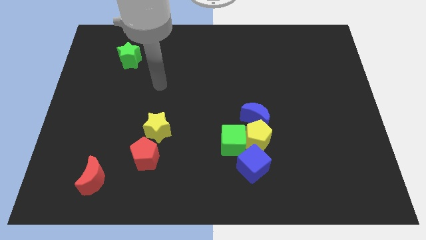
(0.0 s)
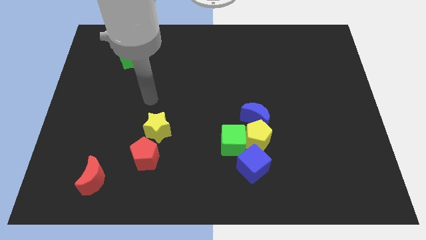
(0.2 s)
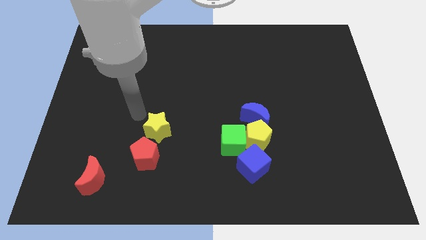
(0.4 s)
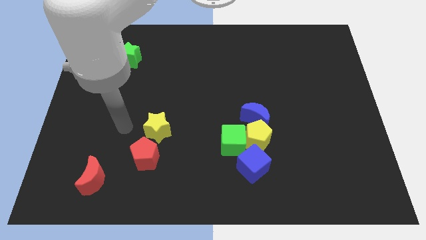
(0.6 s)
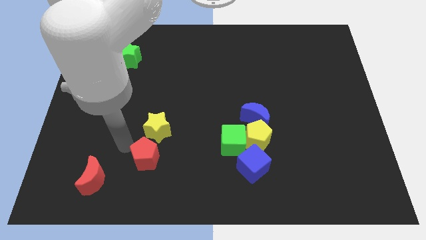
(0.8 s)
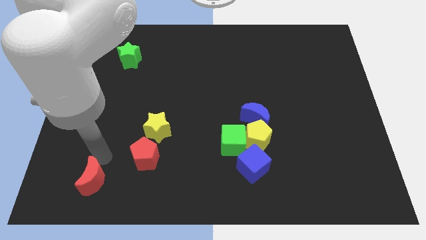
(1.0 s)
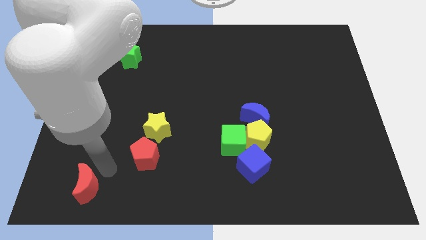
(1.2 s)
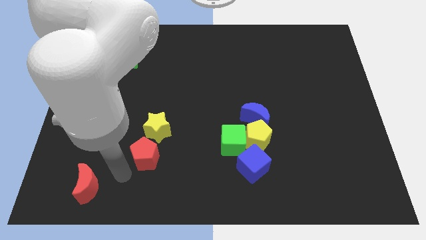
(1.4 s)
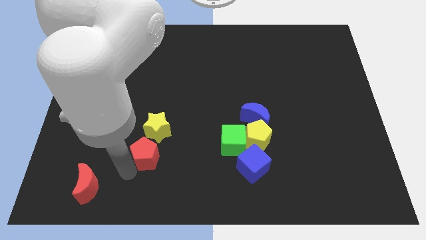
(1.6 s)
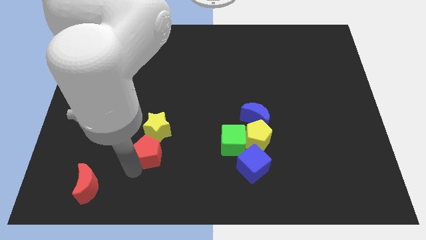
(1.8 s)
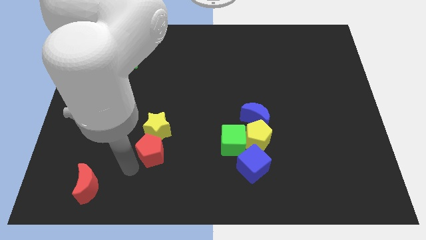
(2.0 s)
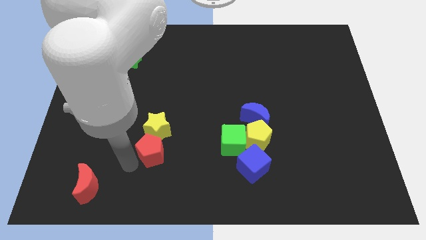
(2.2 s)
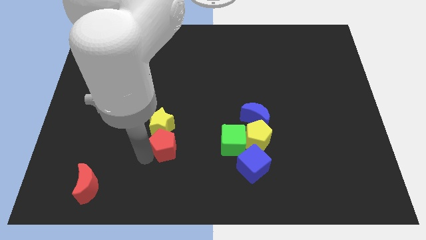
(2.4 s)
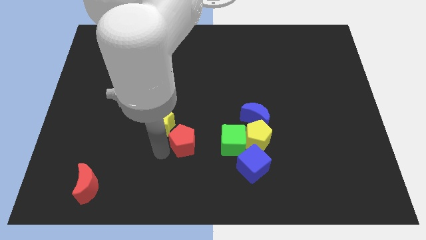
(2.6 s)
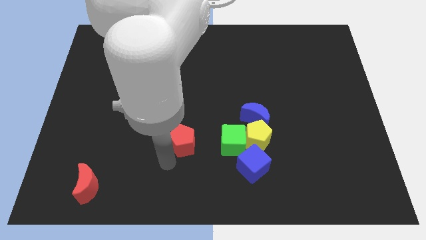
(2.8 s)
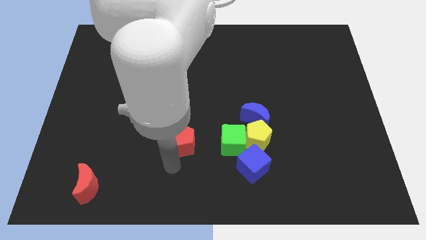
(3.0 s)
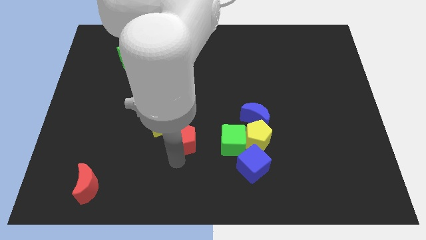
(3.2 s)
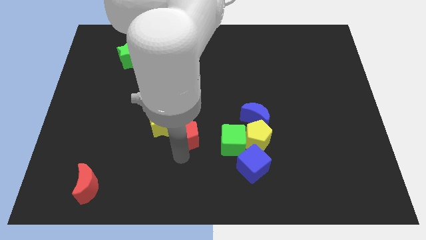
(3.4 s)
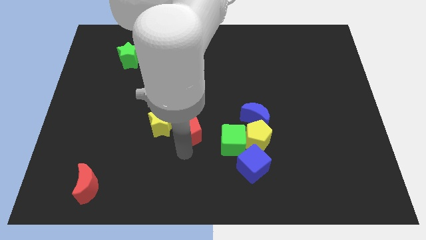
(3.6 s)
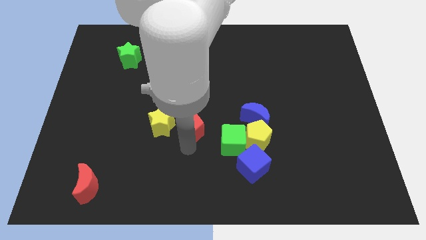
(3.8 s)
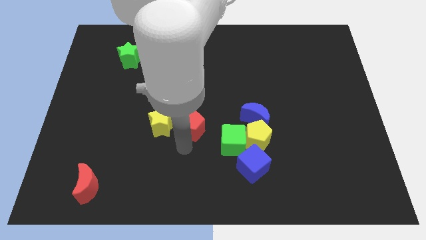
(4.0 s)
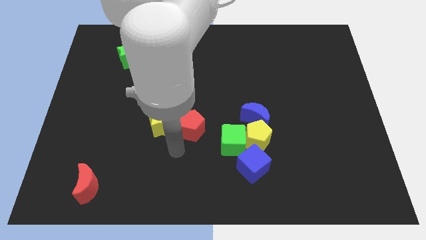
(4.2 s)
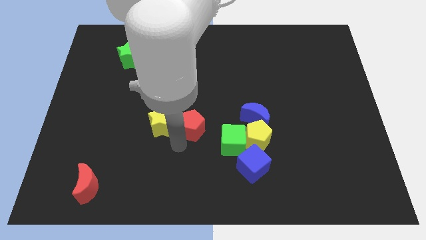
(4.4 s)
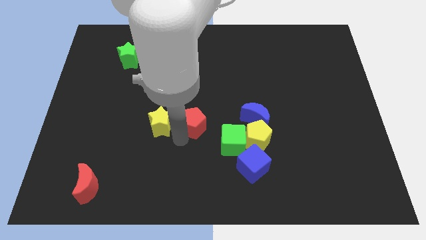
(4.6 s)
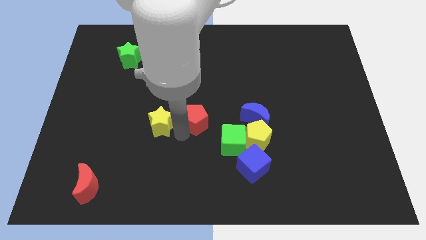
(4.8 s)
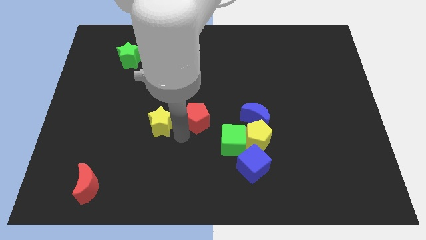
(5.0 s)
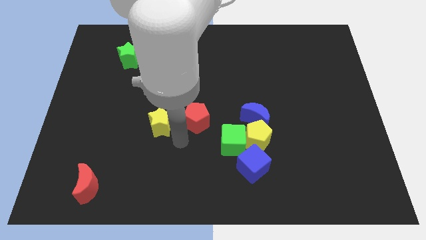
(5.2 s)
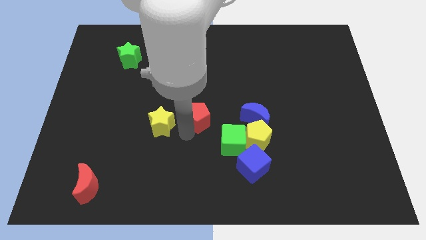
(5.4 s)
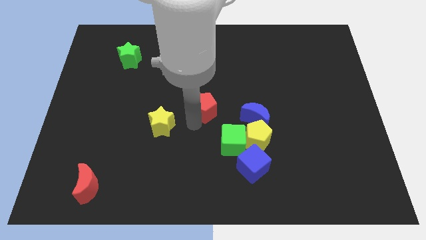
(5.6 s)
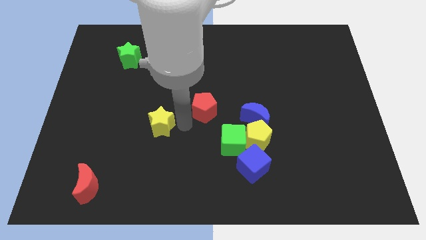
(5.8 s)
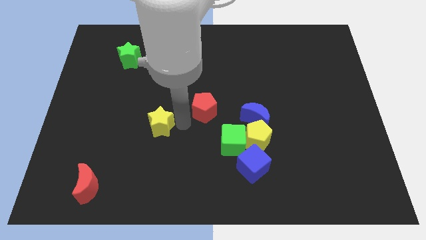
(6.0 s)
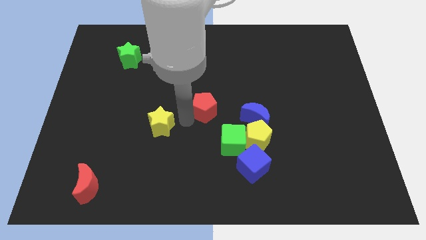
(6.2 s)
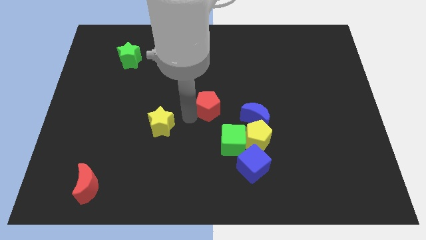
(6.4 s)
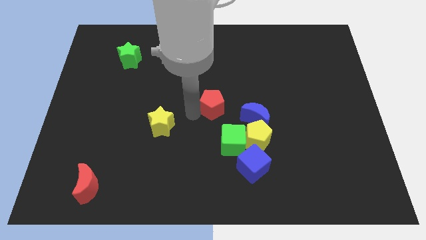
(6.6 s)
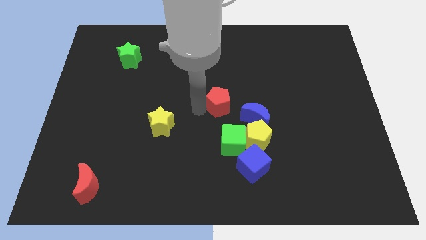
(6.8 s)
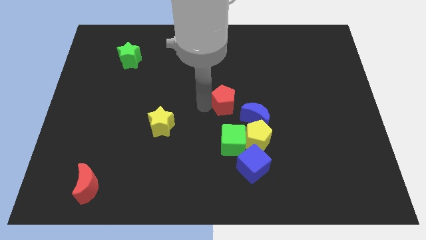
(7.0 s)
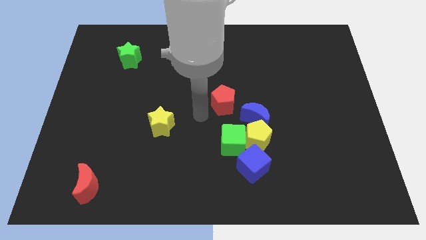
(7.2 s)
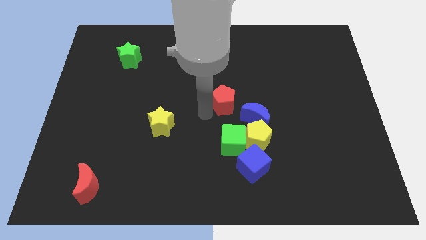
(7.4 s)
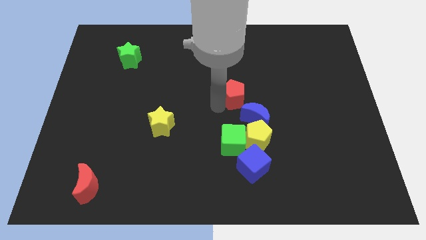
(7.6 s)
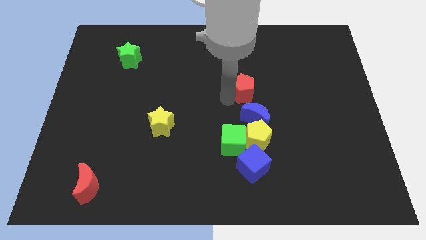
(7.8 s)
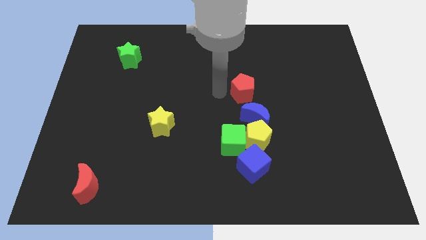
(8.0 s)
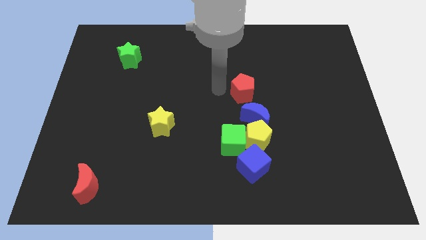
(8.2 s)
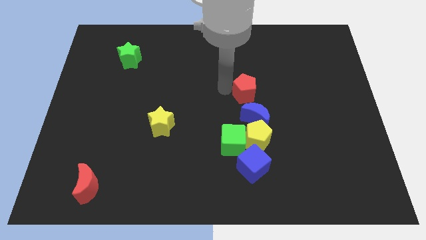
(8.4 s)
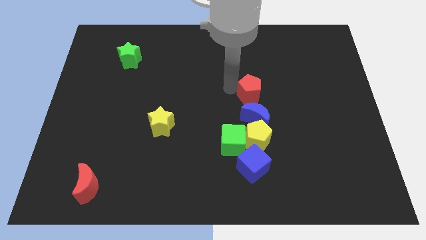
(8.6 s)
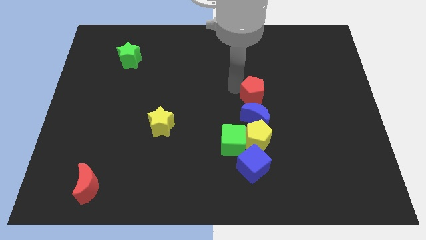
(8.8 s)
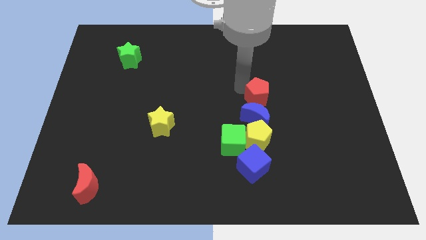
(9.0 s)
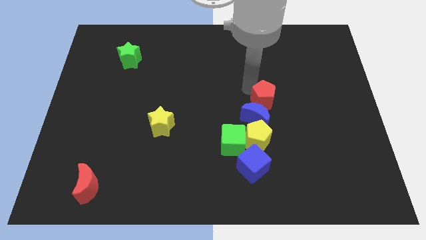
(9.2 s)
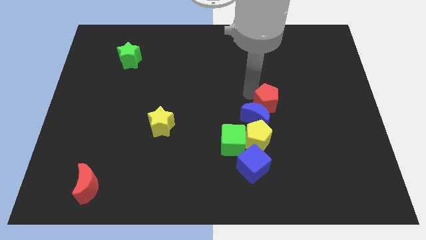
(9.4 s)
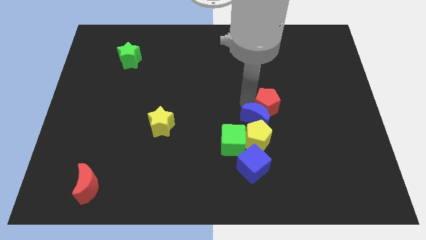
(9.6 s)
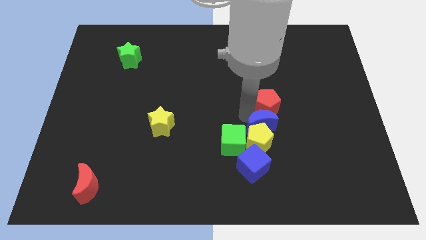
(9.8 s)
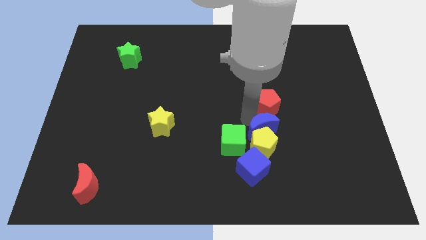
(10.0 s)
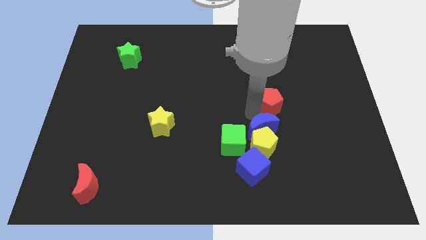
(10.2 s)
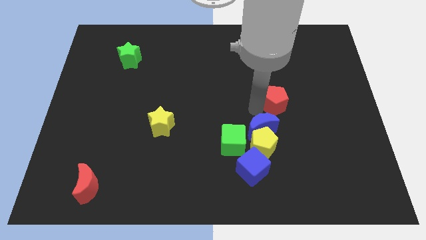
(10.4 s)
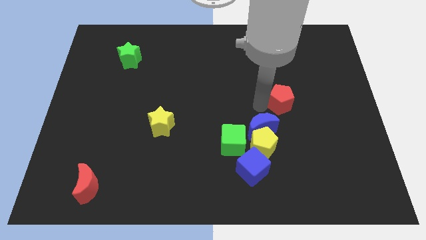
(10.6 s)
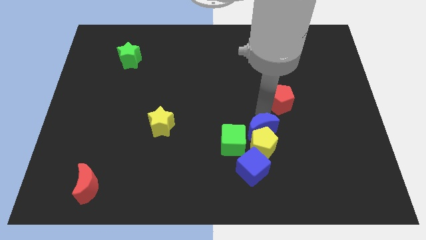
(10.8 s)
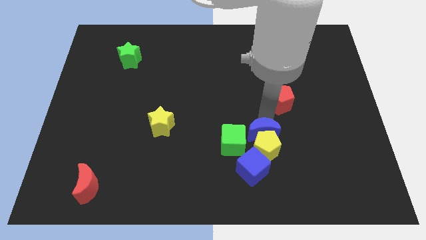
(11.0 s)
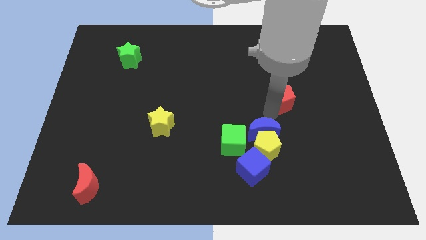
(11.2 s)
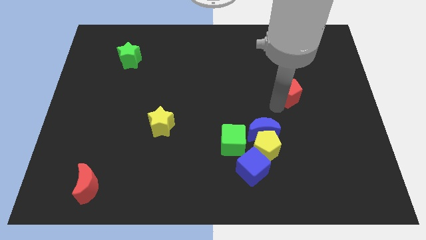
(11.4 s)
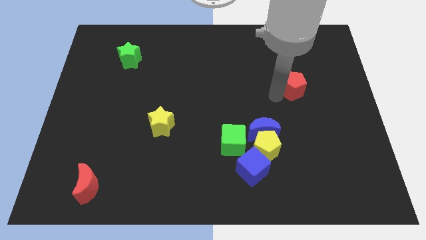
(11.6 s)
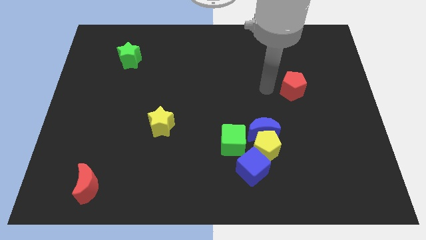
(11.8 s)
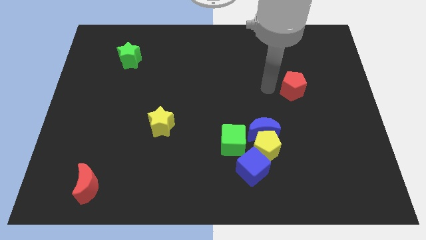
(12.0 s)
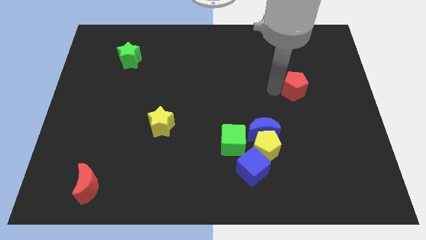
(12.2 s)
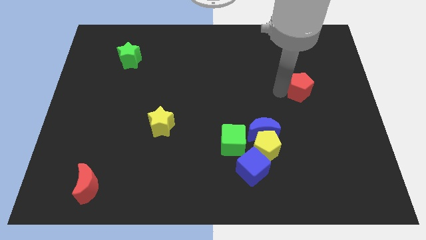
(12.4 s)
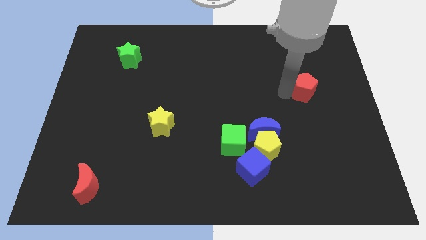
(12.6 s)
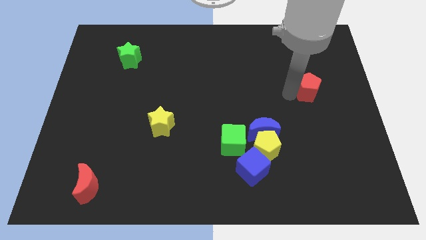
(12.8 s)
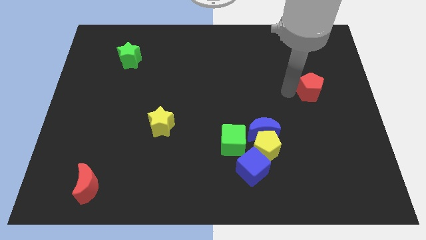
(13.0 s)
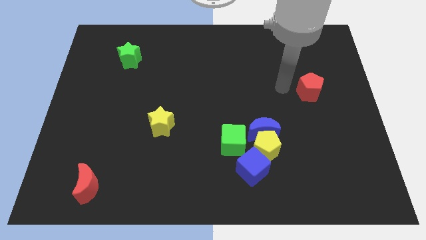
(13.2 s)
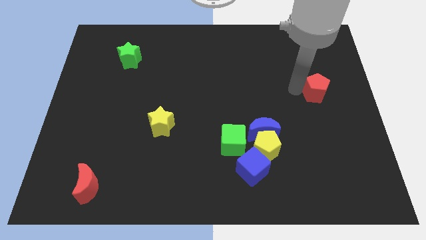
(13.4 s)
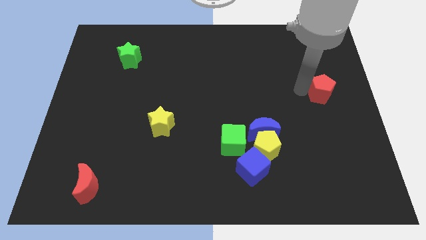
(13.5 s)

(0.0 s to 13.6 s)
slide the red pentagon to the center right
